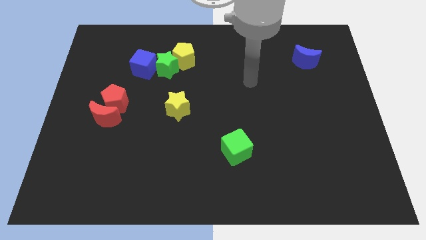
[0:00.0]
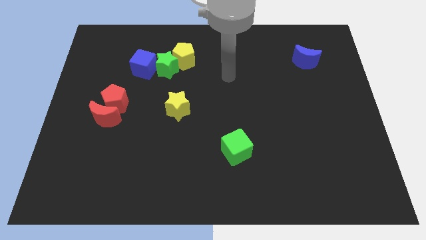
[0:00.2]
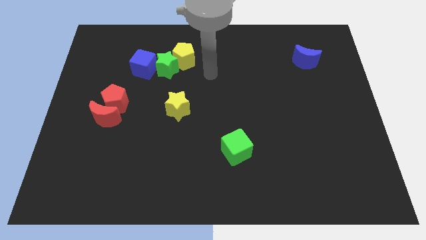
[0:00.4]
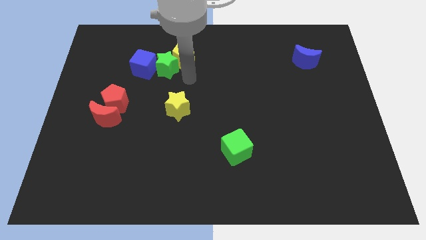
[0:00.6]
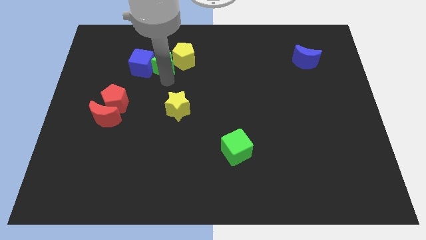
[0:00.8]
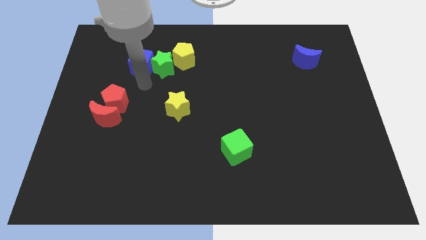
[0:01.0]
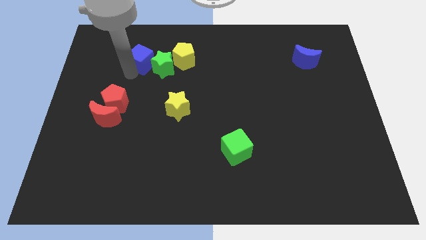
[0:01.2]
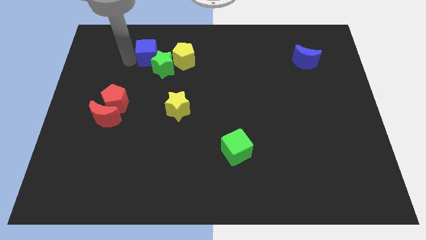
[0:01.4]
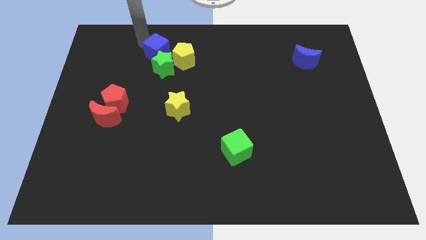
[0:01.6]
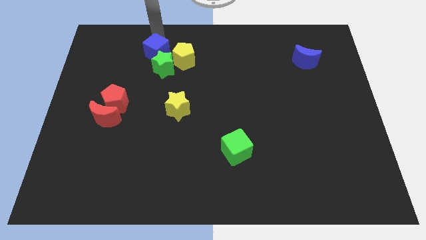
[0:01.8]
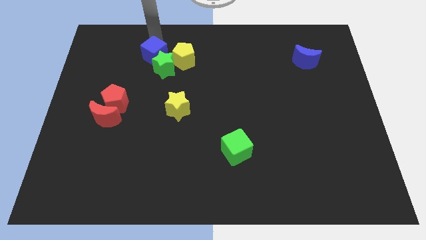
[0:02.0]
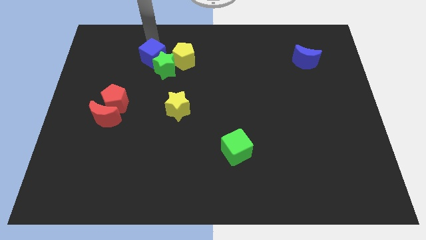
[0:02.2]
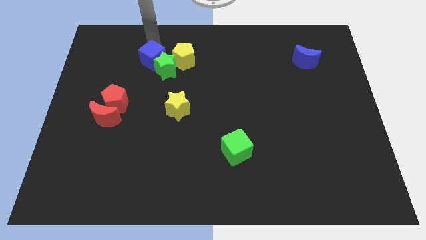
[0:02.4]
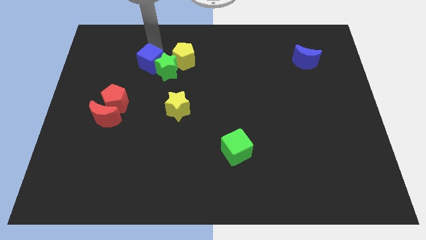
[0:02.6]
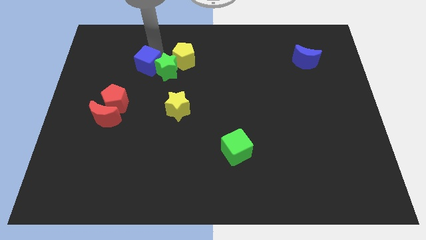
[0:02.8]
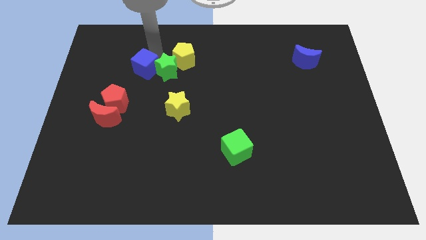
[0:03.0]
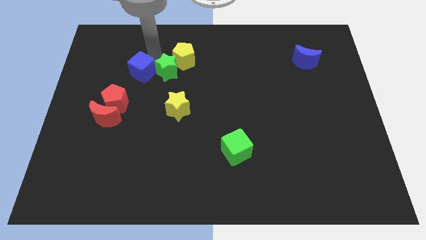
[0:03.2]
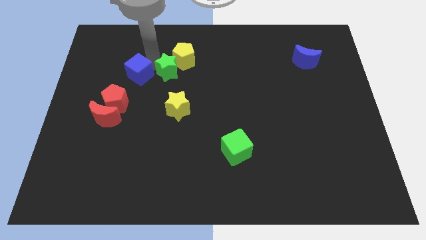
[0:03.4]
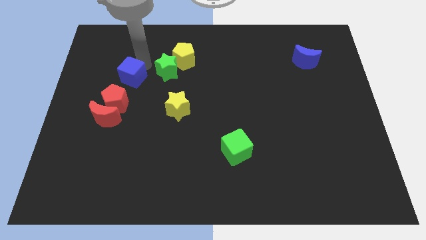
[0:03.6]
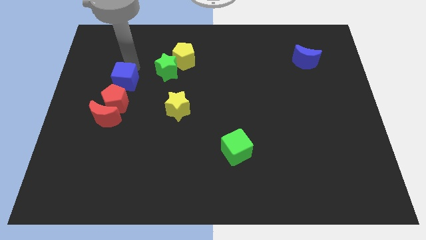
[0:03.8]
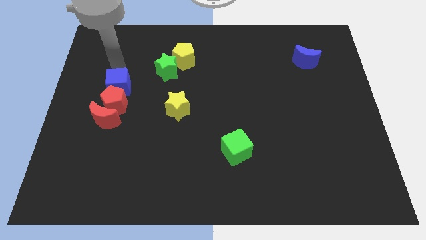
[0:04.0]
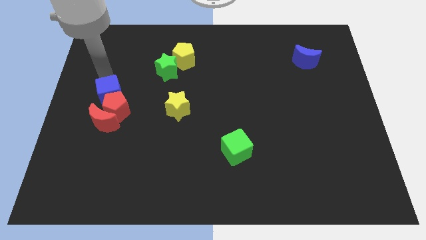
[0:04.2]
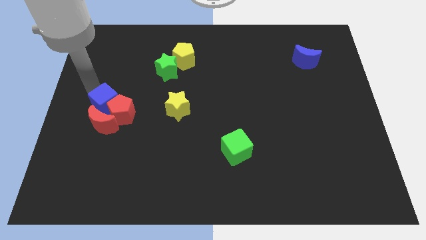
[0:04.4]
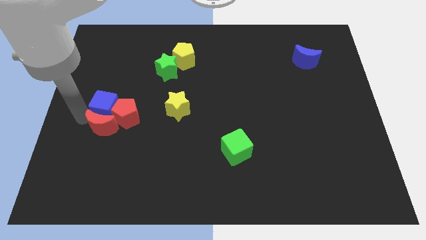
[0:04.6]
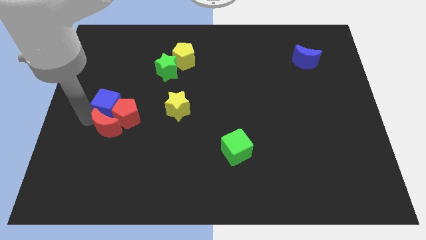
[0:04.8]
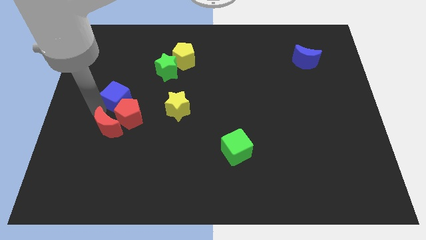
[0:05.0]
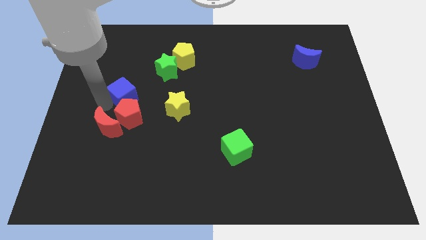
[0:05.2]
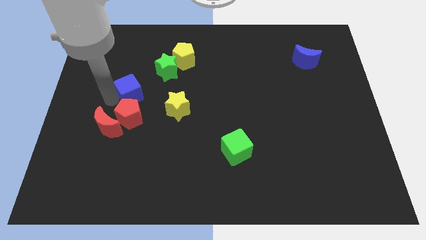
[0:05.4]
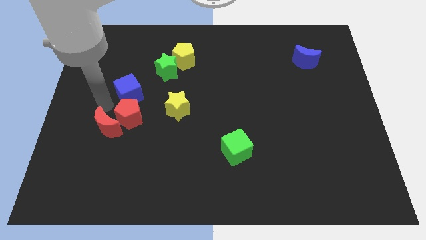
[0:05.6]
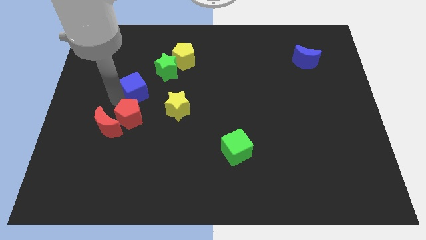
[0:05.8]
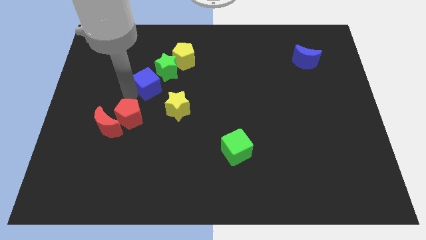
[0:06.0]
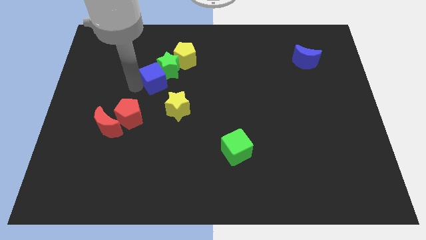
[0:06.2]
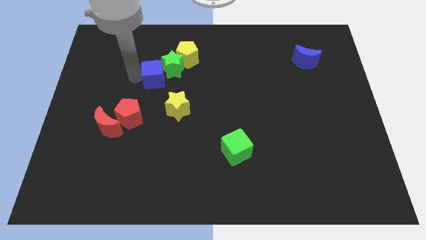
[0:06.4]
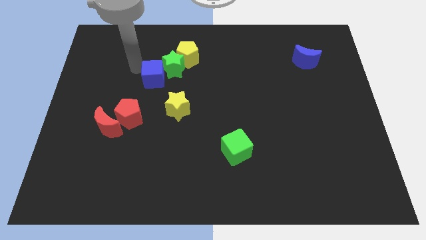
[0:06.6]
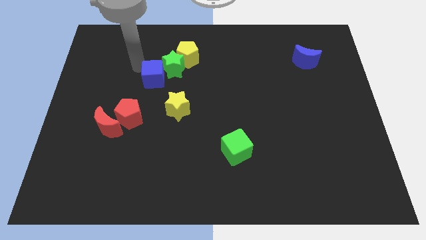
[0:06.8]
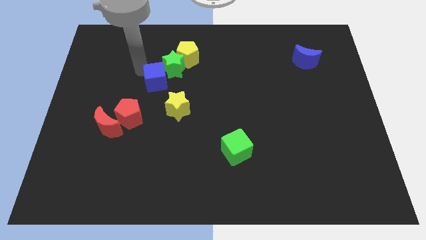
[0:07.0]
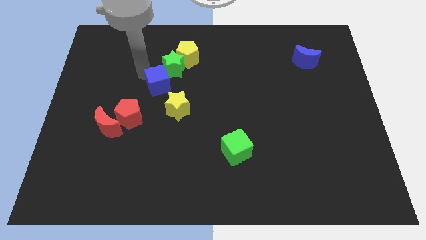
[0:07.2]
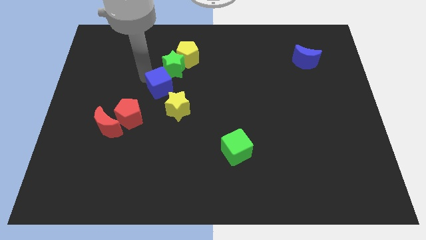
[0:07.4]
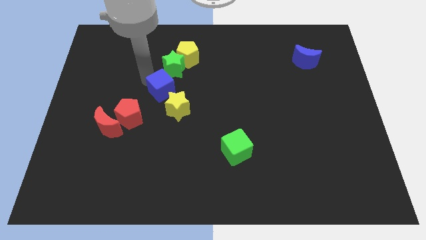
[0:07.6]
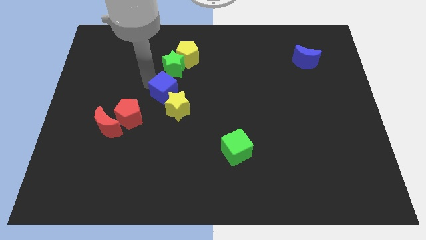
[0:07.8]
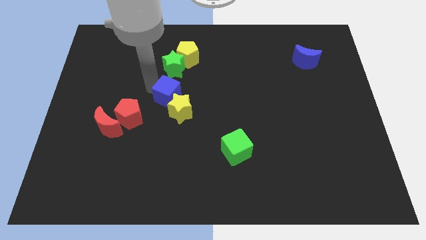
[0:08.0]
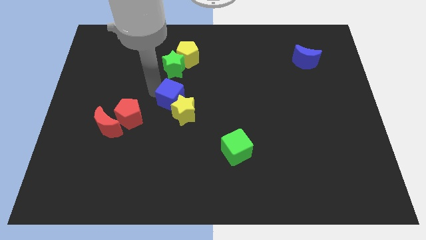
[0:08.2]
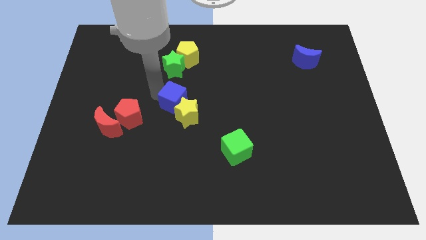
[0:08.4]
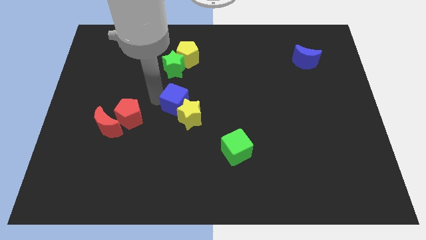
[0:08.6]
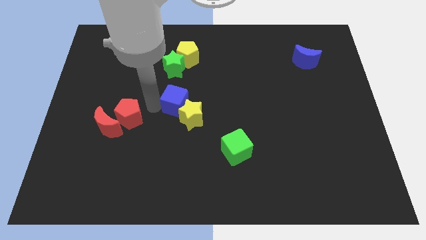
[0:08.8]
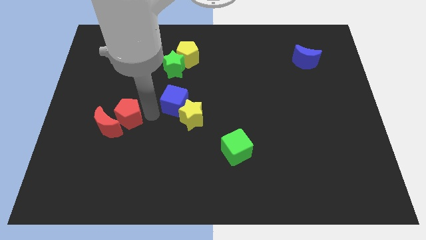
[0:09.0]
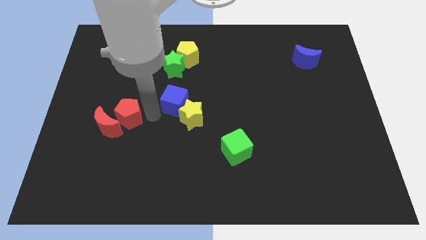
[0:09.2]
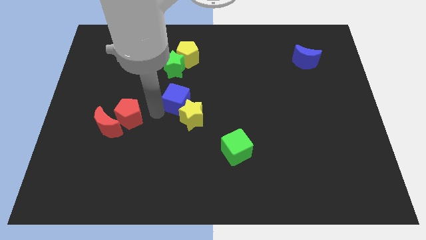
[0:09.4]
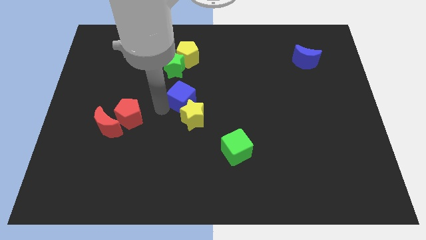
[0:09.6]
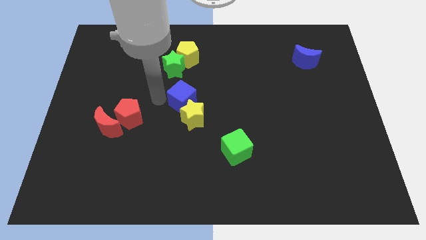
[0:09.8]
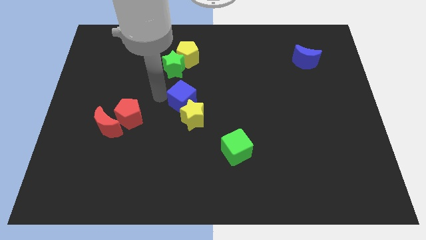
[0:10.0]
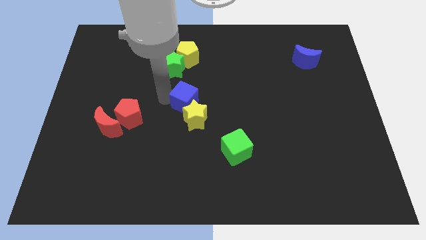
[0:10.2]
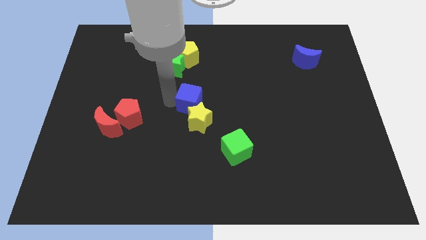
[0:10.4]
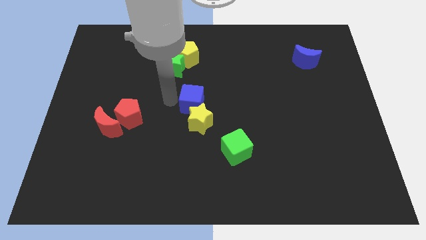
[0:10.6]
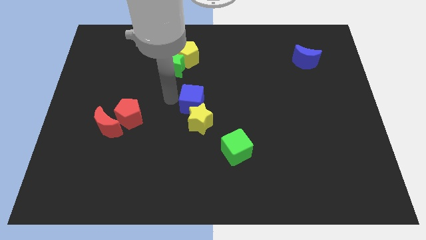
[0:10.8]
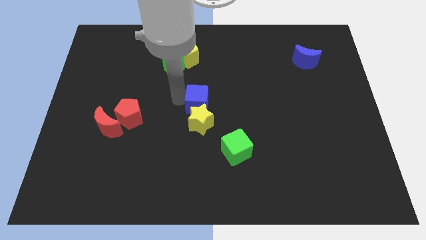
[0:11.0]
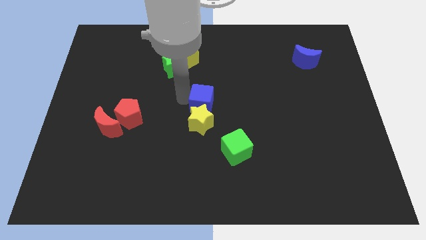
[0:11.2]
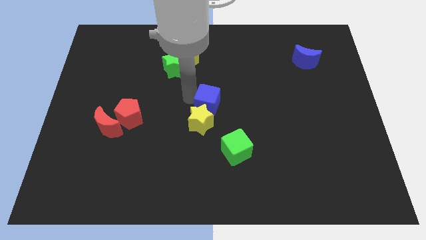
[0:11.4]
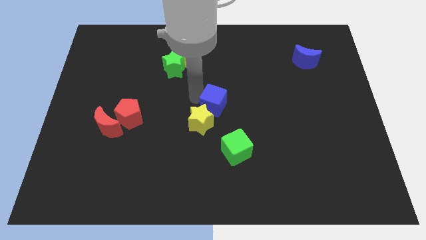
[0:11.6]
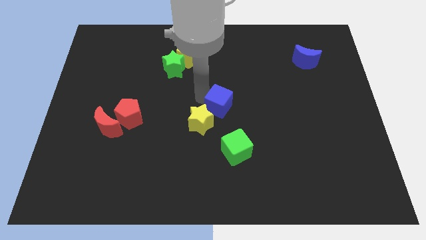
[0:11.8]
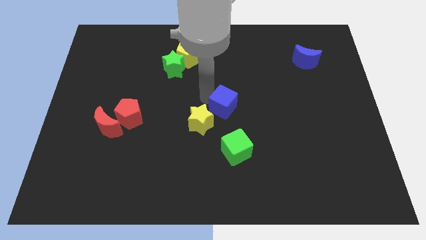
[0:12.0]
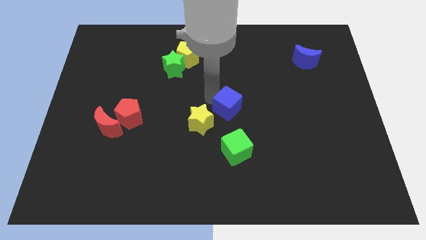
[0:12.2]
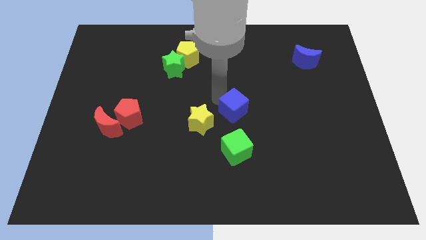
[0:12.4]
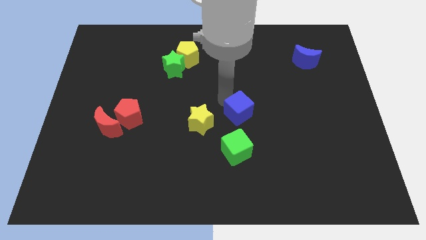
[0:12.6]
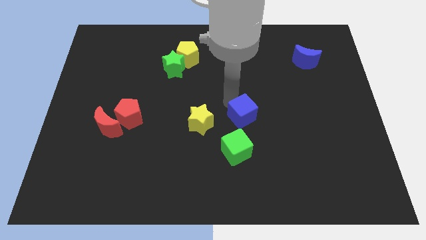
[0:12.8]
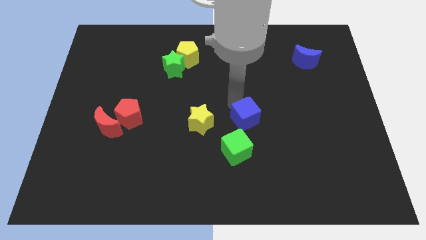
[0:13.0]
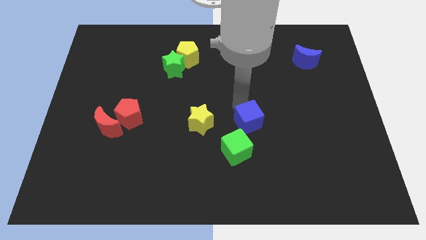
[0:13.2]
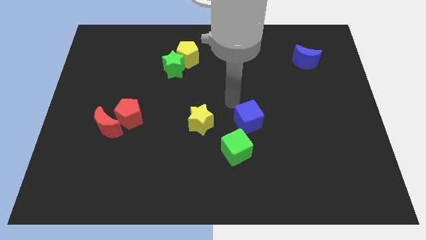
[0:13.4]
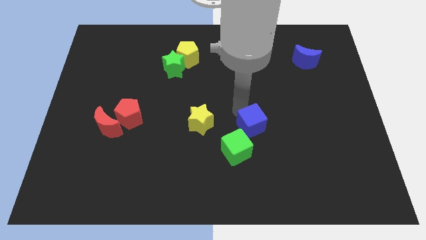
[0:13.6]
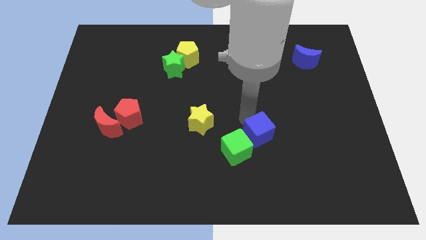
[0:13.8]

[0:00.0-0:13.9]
slide the blue cube just right of the green cube
